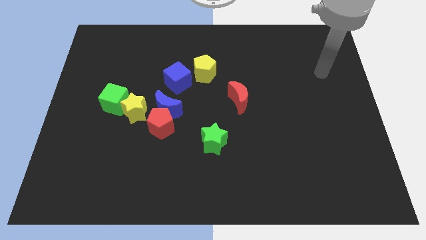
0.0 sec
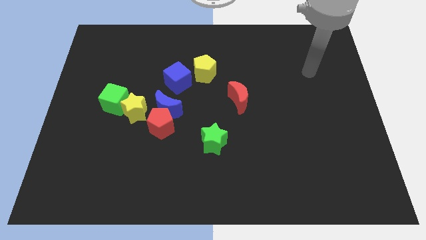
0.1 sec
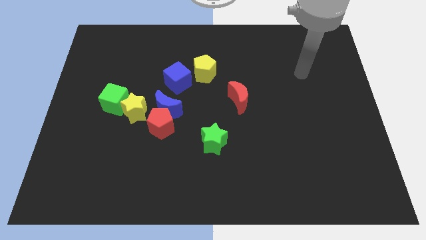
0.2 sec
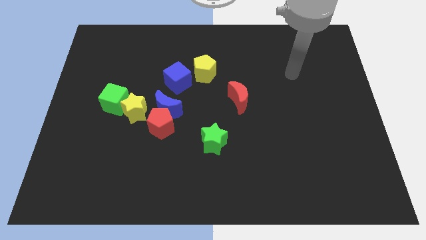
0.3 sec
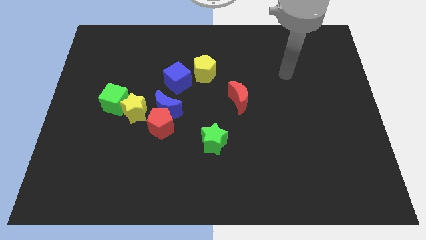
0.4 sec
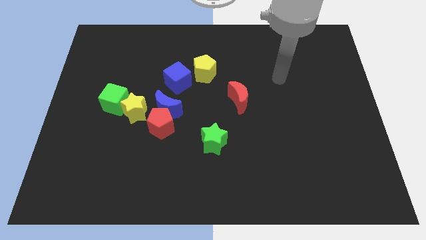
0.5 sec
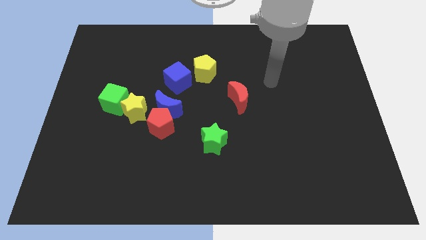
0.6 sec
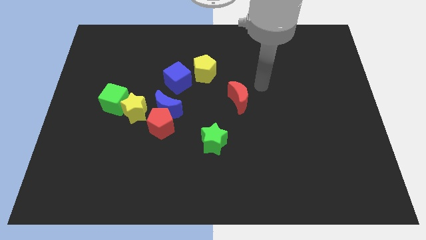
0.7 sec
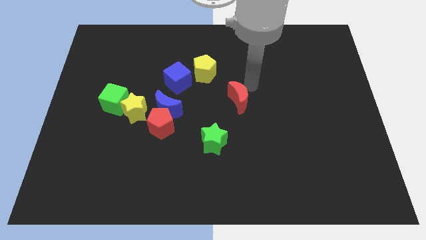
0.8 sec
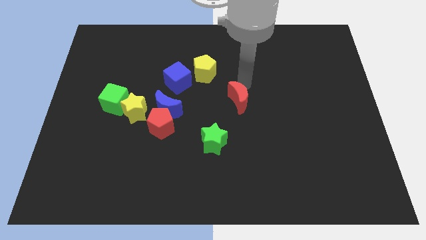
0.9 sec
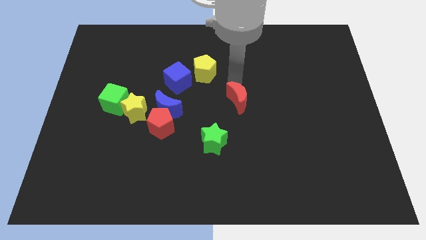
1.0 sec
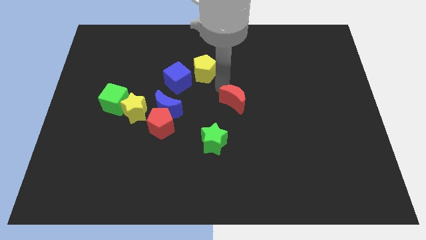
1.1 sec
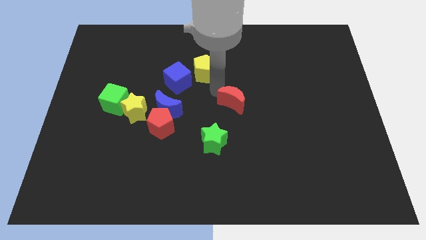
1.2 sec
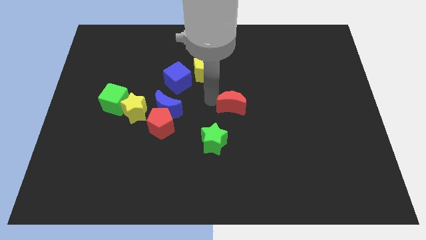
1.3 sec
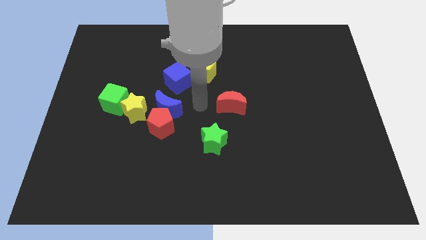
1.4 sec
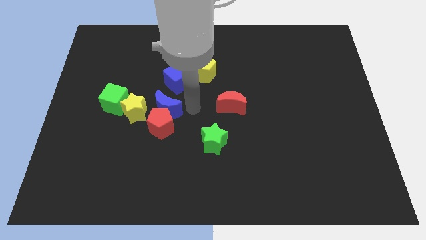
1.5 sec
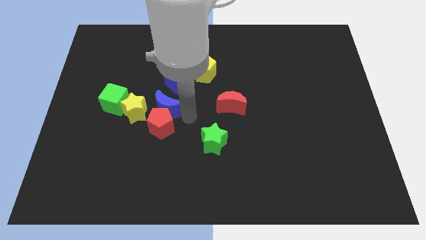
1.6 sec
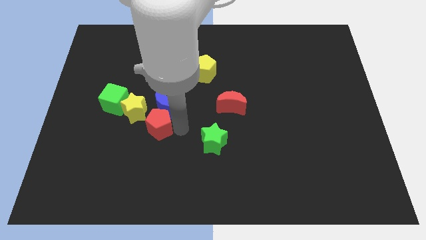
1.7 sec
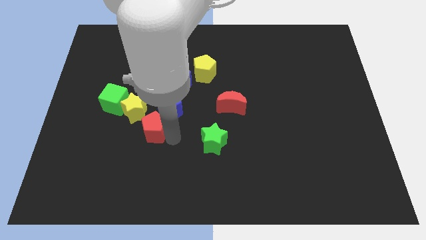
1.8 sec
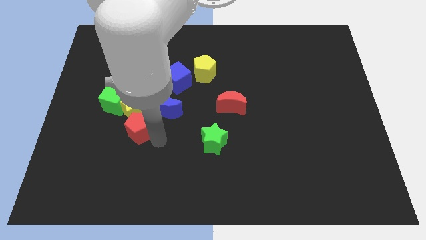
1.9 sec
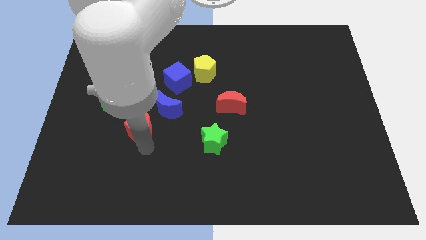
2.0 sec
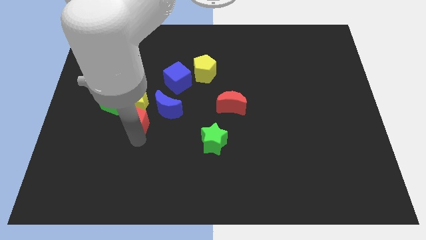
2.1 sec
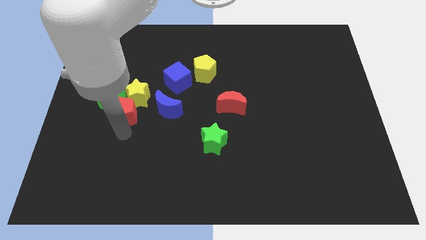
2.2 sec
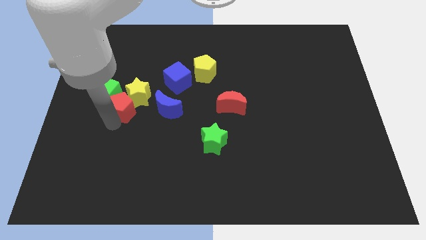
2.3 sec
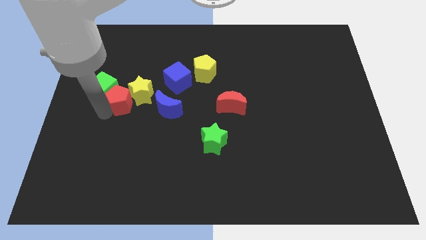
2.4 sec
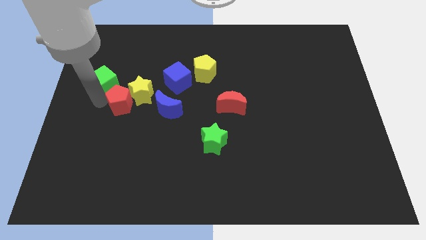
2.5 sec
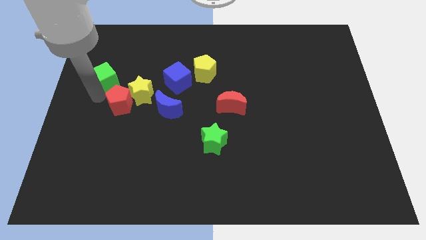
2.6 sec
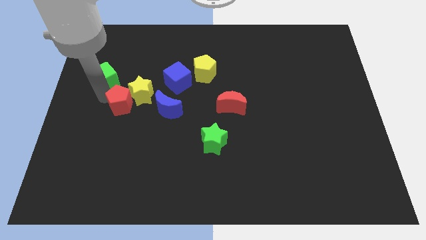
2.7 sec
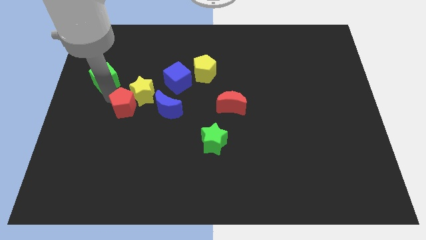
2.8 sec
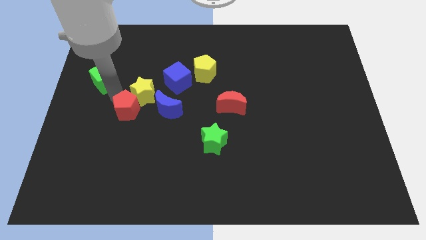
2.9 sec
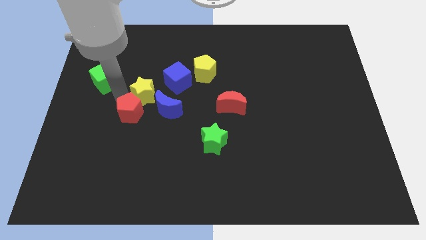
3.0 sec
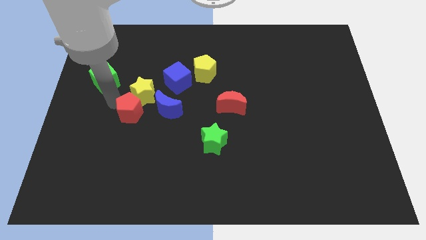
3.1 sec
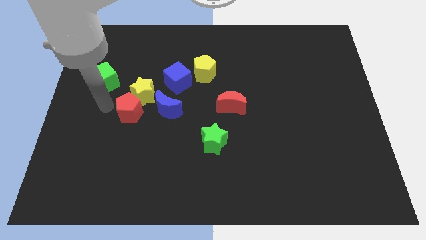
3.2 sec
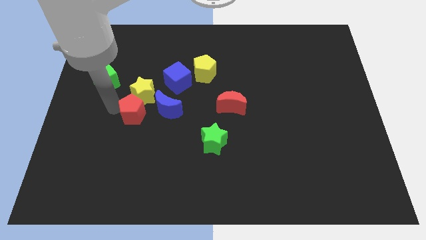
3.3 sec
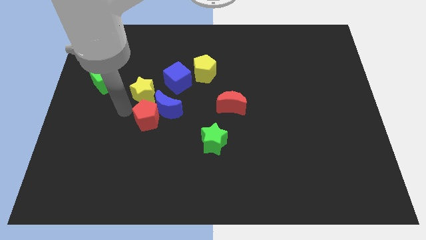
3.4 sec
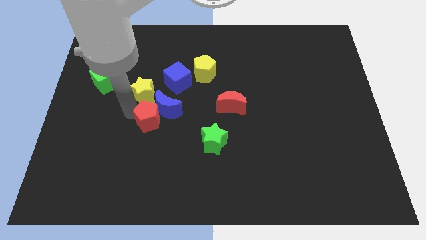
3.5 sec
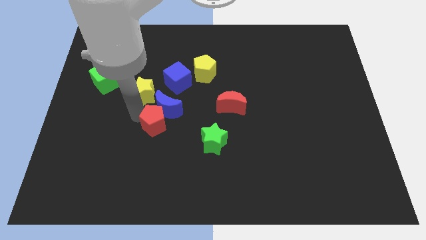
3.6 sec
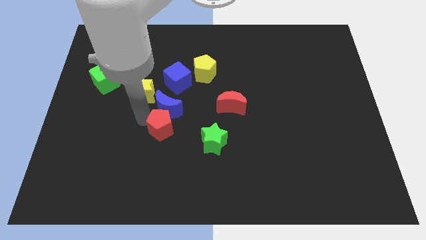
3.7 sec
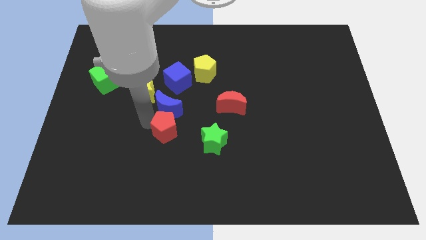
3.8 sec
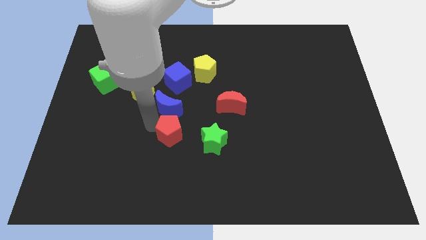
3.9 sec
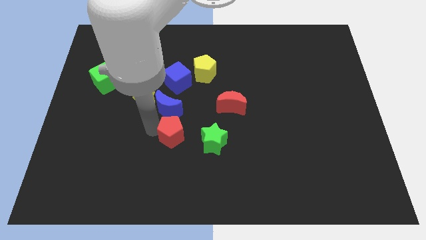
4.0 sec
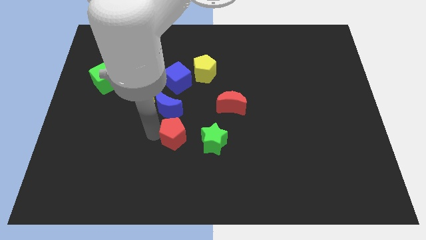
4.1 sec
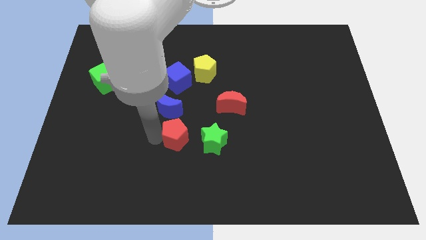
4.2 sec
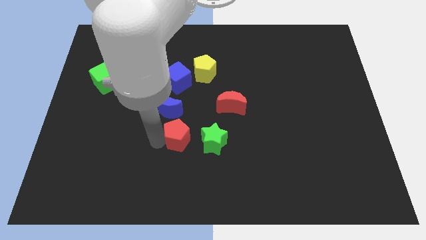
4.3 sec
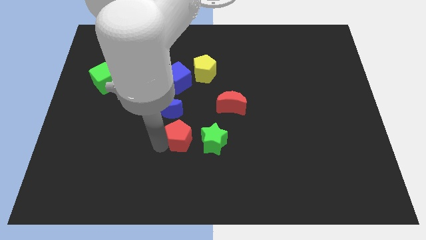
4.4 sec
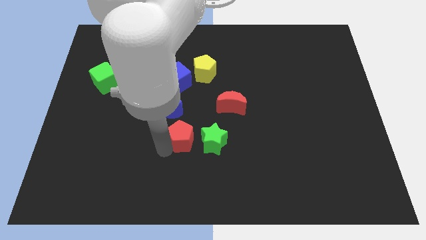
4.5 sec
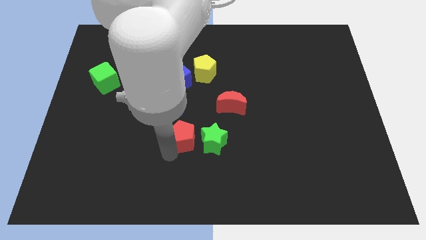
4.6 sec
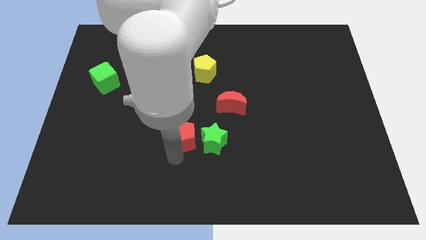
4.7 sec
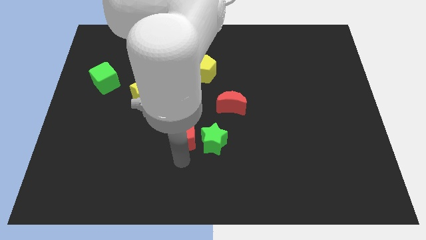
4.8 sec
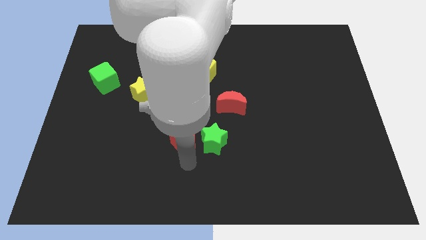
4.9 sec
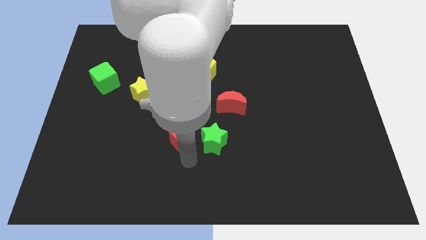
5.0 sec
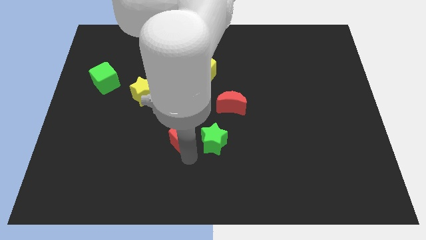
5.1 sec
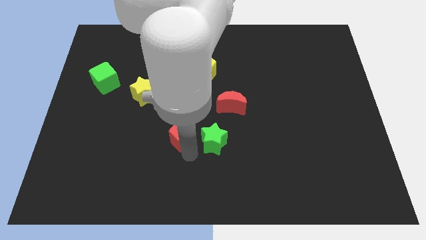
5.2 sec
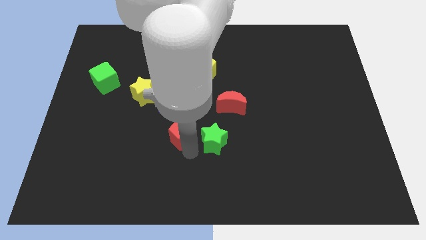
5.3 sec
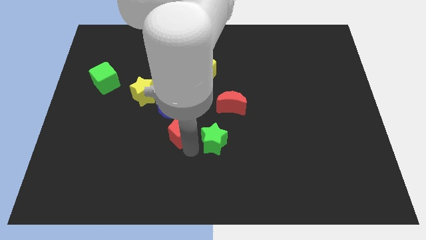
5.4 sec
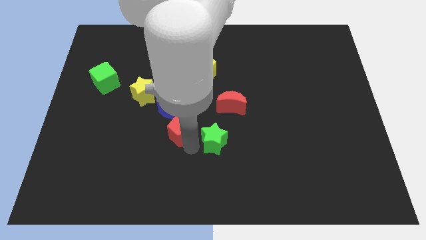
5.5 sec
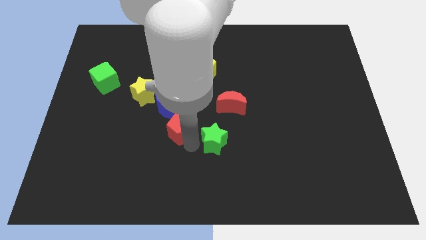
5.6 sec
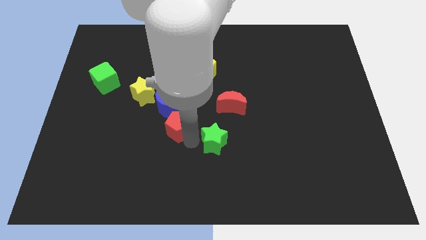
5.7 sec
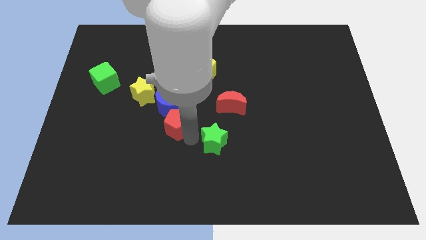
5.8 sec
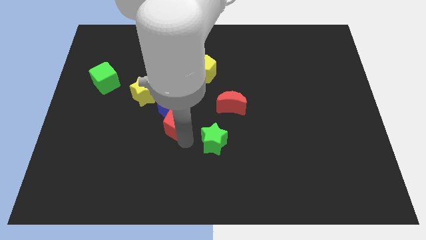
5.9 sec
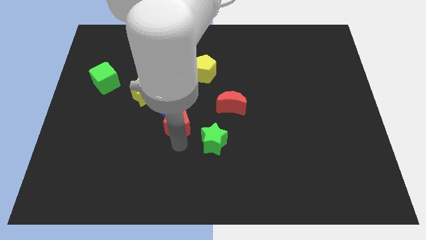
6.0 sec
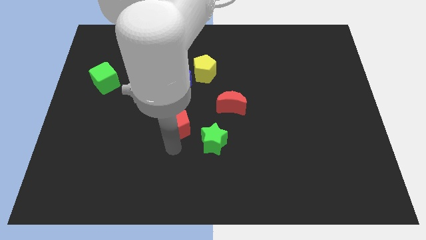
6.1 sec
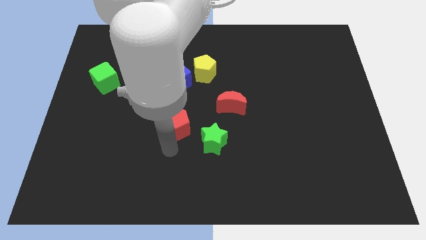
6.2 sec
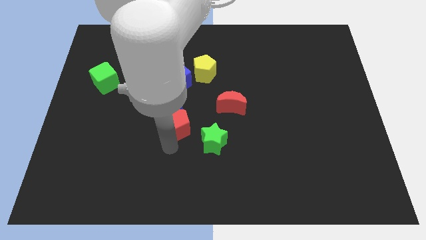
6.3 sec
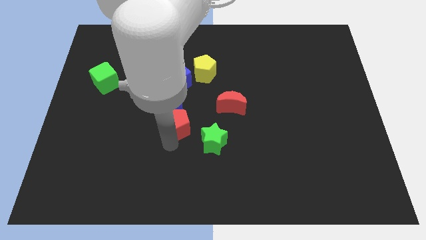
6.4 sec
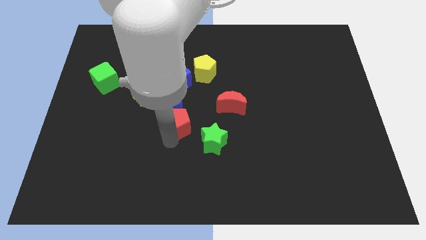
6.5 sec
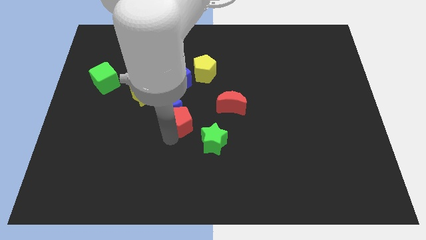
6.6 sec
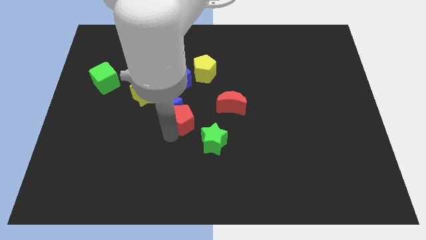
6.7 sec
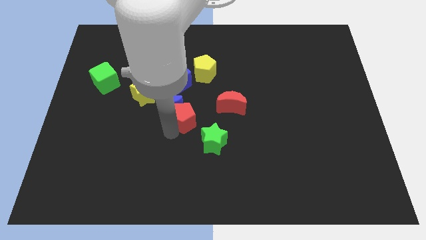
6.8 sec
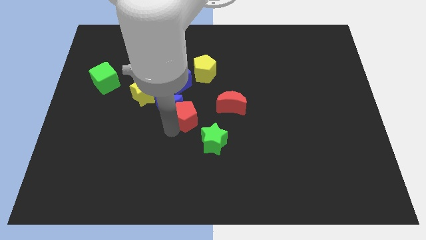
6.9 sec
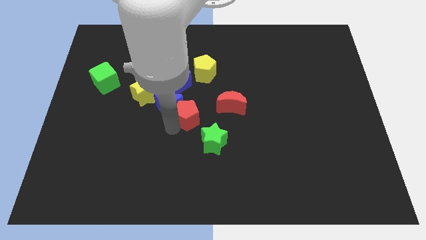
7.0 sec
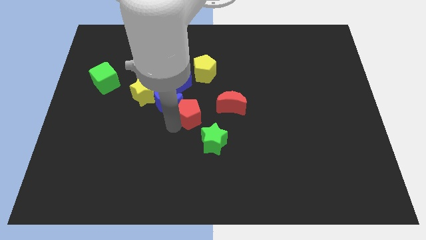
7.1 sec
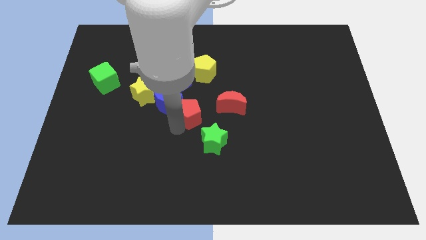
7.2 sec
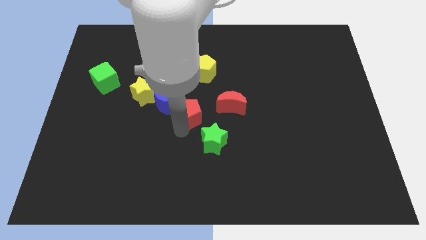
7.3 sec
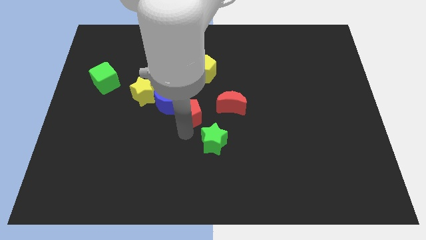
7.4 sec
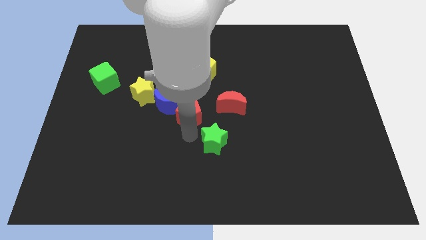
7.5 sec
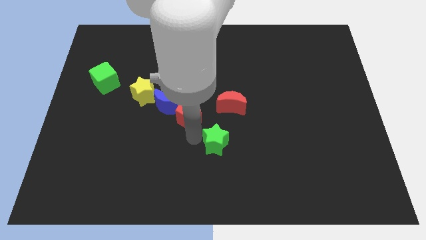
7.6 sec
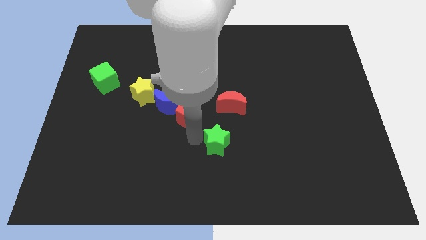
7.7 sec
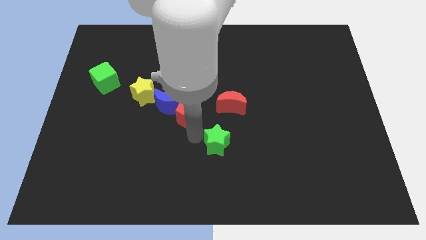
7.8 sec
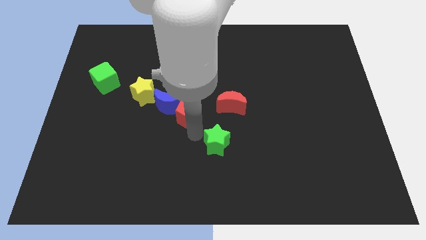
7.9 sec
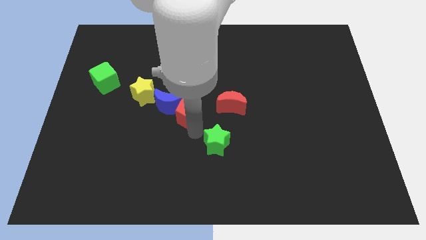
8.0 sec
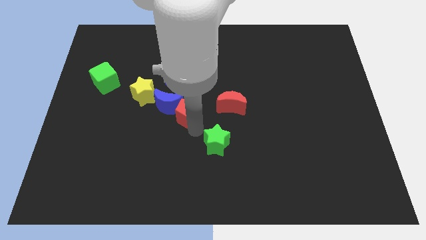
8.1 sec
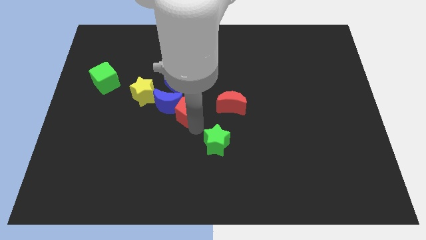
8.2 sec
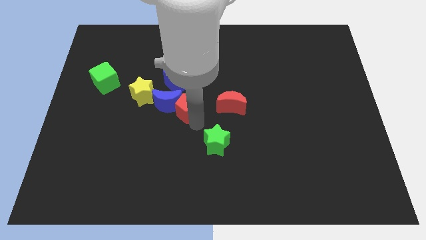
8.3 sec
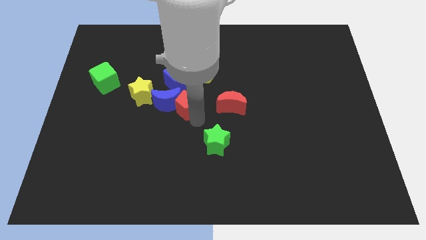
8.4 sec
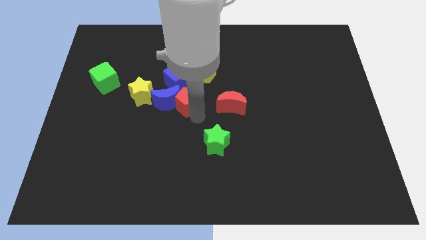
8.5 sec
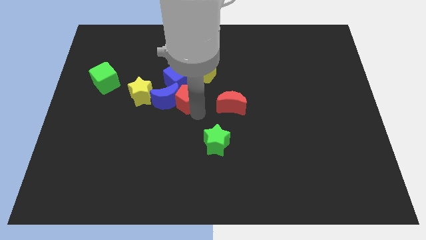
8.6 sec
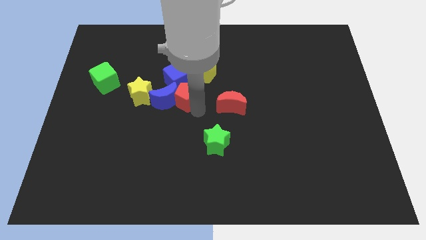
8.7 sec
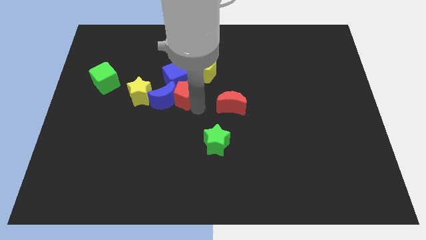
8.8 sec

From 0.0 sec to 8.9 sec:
push the red pentagon next to the blue cube
